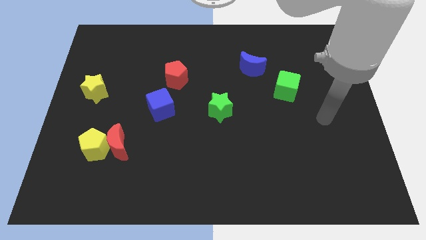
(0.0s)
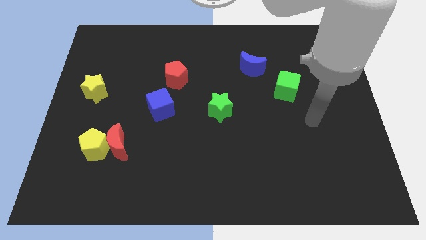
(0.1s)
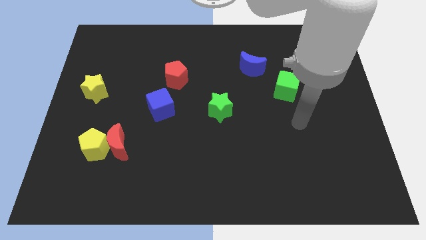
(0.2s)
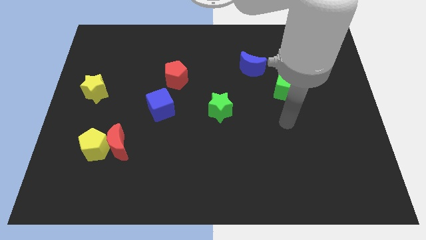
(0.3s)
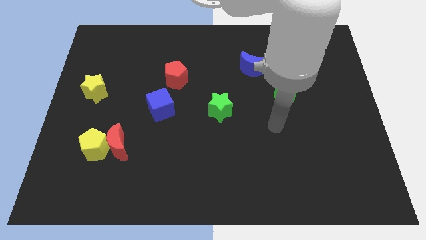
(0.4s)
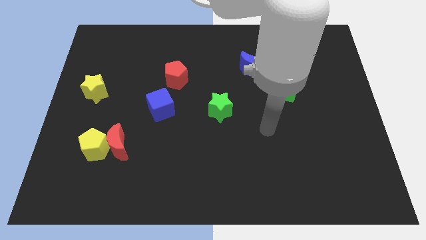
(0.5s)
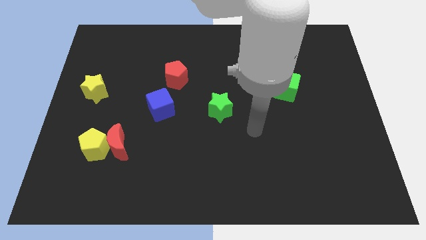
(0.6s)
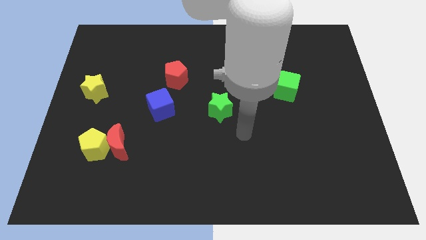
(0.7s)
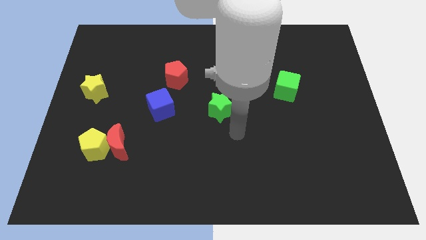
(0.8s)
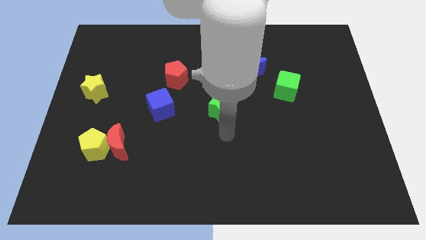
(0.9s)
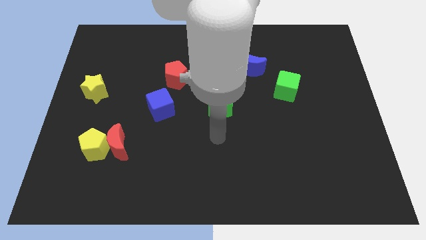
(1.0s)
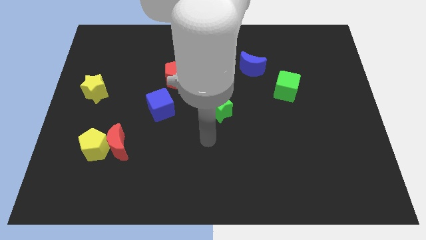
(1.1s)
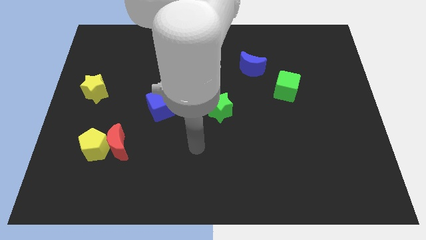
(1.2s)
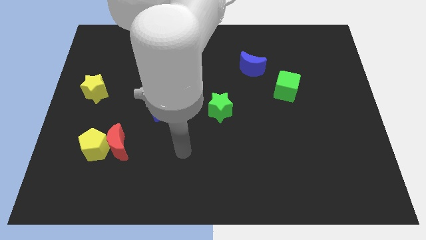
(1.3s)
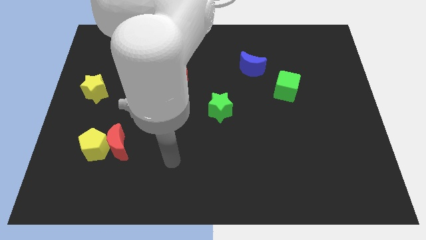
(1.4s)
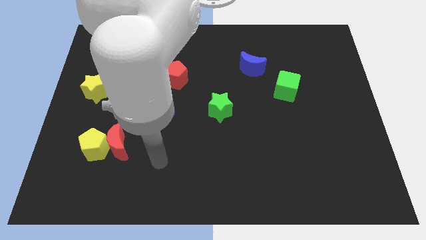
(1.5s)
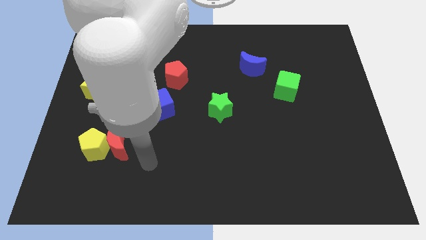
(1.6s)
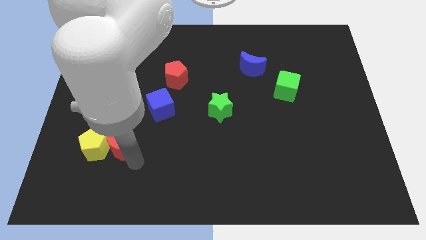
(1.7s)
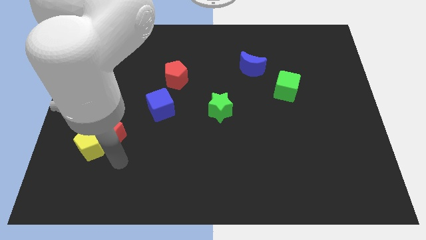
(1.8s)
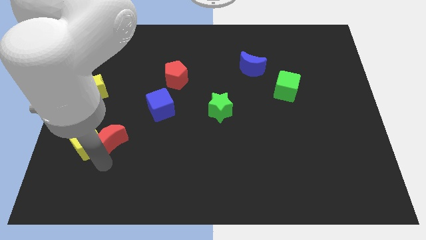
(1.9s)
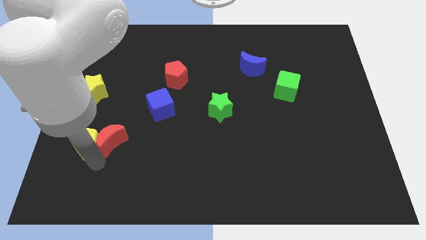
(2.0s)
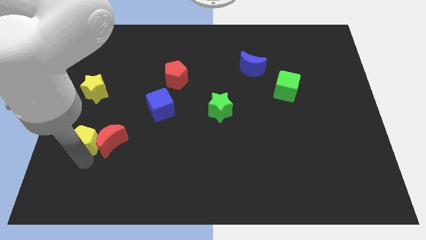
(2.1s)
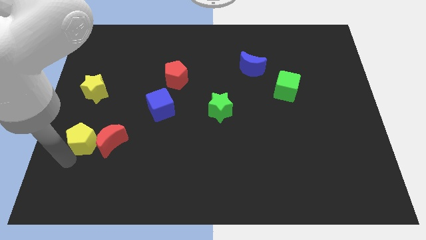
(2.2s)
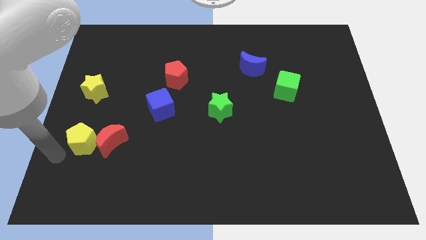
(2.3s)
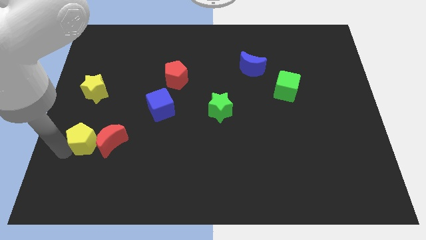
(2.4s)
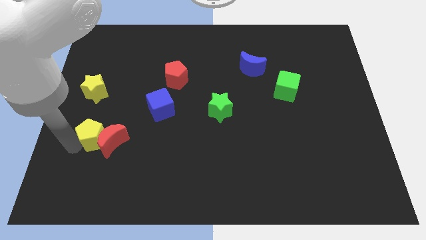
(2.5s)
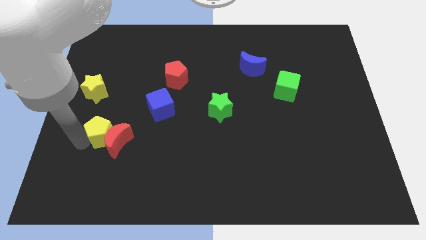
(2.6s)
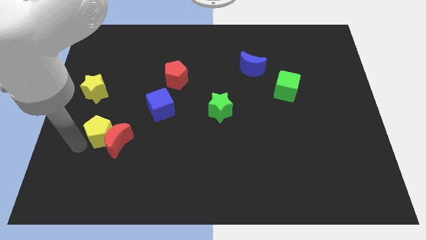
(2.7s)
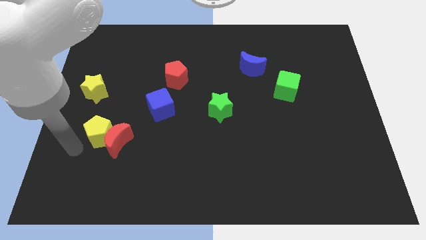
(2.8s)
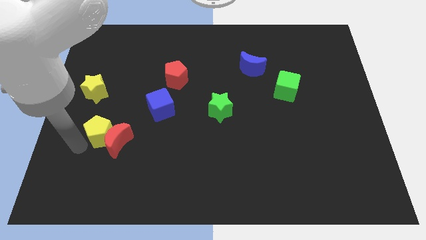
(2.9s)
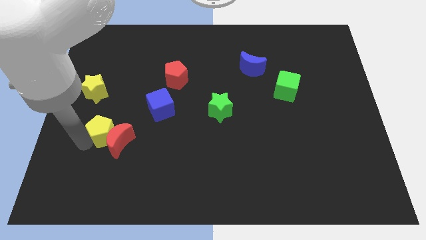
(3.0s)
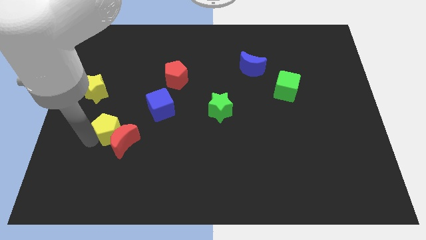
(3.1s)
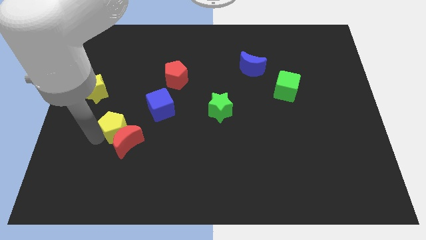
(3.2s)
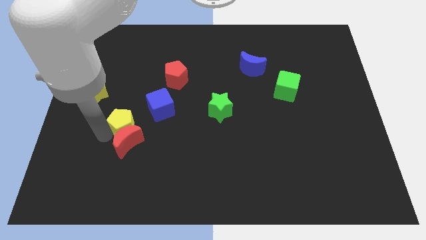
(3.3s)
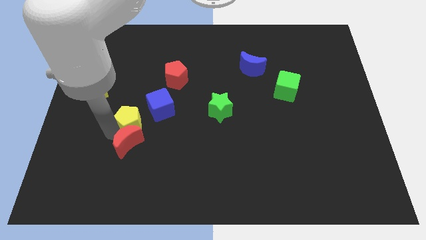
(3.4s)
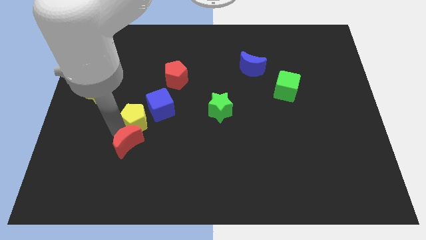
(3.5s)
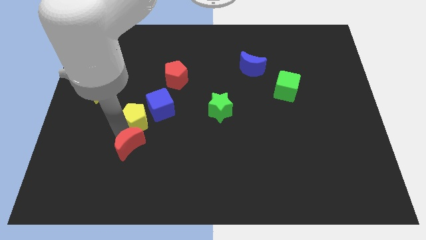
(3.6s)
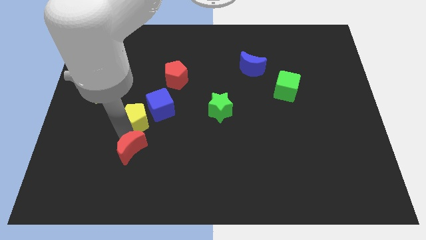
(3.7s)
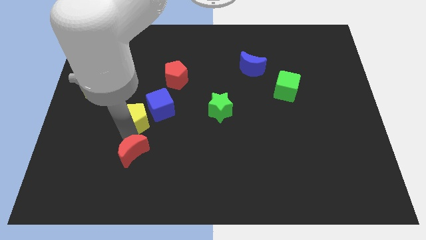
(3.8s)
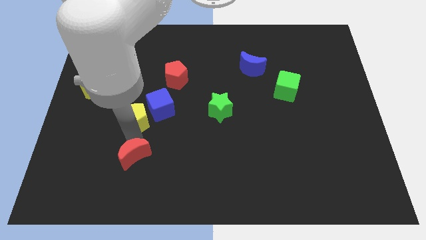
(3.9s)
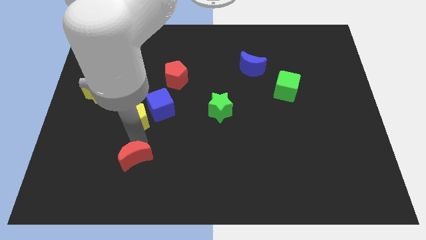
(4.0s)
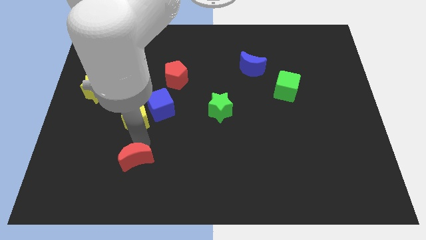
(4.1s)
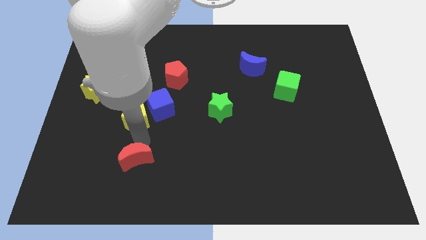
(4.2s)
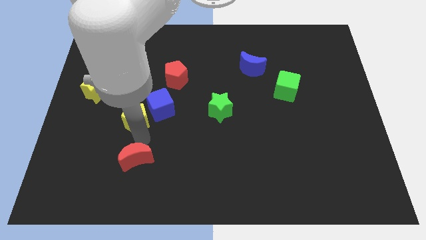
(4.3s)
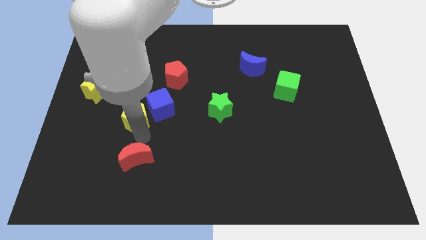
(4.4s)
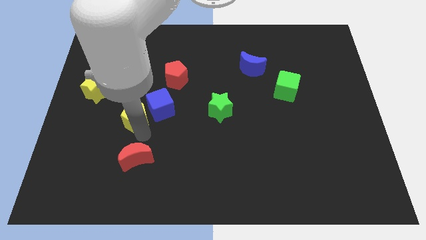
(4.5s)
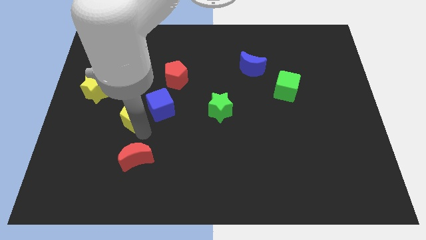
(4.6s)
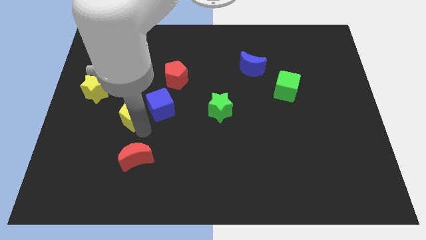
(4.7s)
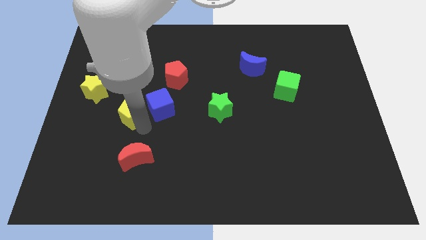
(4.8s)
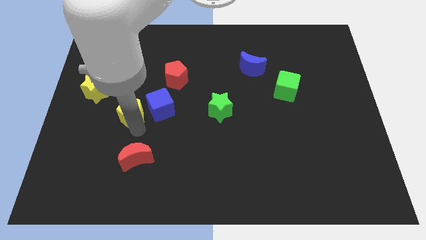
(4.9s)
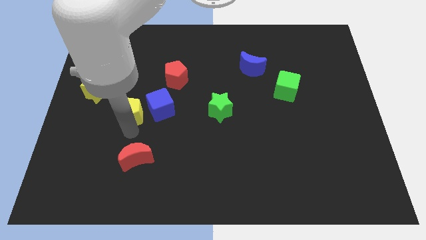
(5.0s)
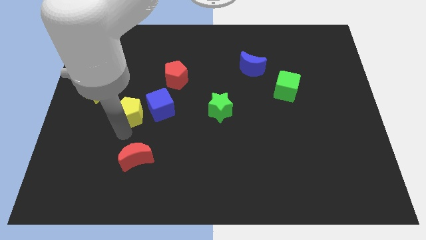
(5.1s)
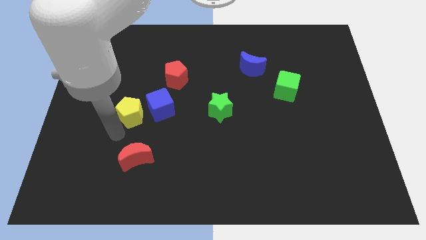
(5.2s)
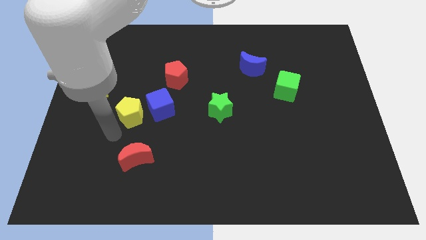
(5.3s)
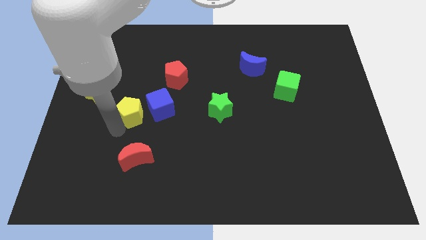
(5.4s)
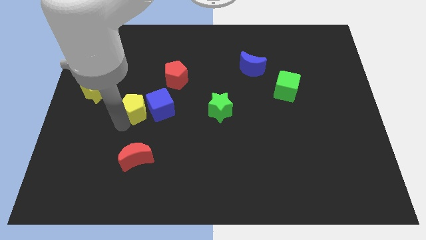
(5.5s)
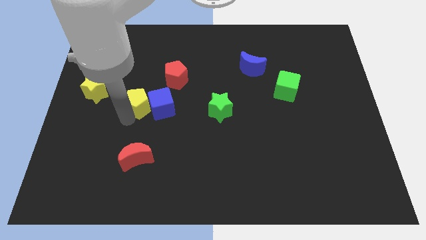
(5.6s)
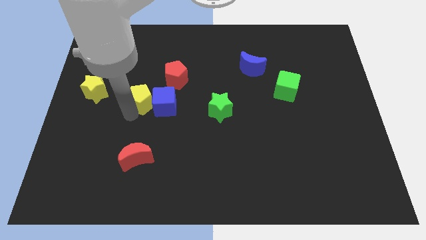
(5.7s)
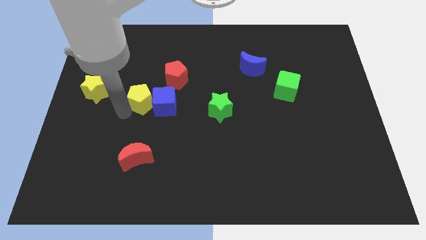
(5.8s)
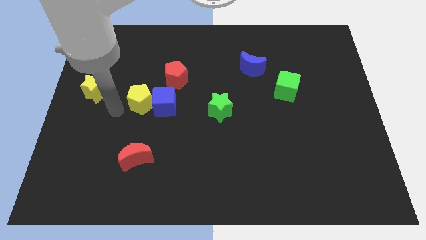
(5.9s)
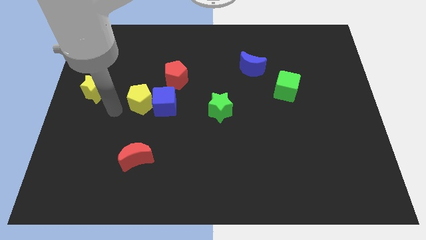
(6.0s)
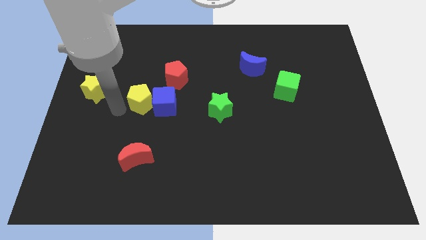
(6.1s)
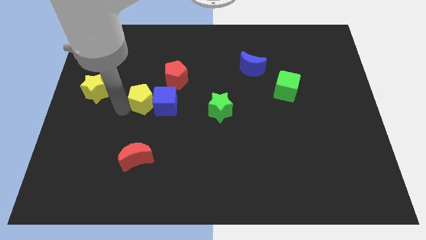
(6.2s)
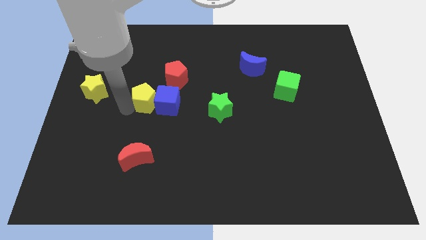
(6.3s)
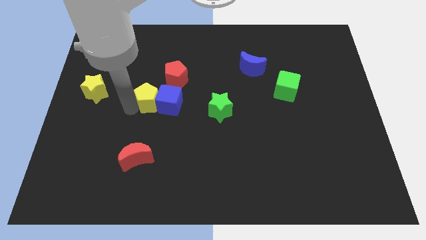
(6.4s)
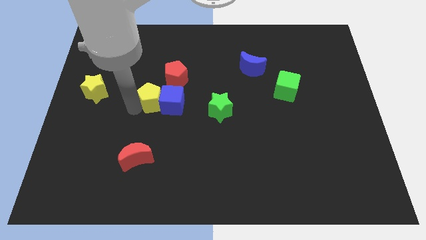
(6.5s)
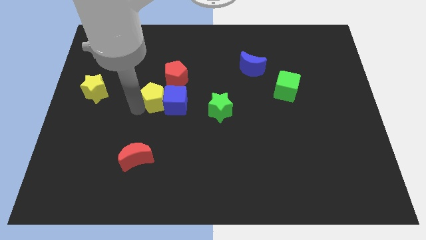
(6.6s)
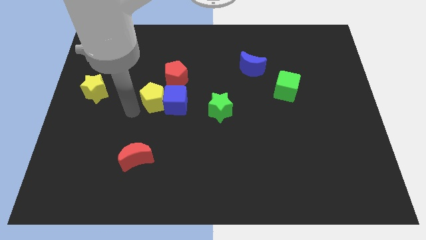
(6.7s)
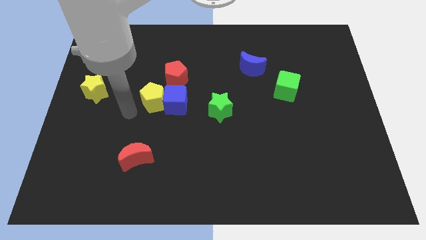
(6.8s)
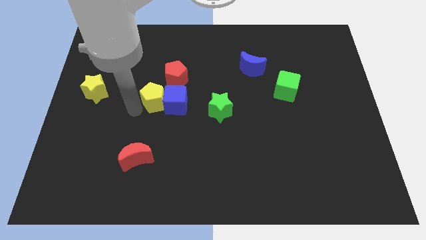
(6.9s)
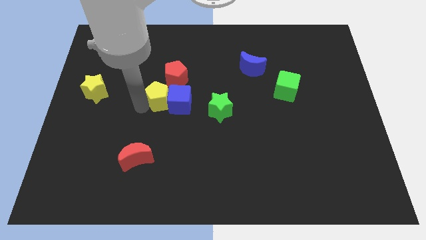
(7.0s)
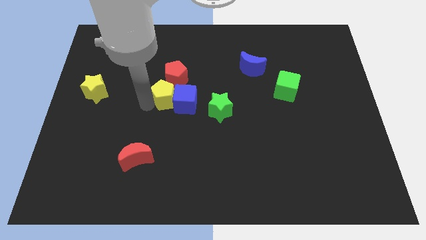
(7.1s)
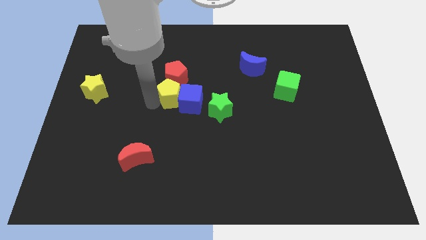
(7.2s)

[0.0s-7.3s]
push the yellow pentagon upwards and then right

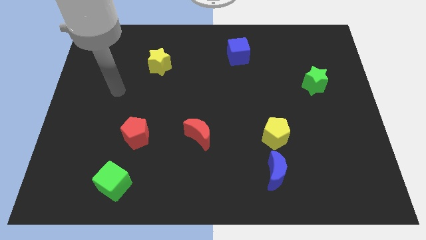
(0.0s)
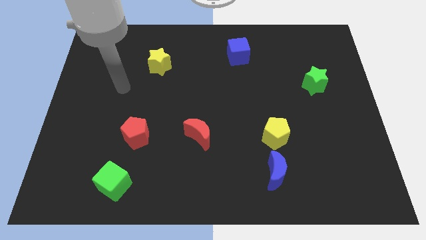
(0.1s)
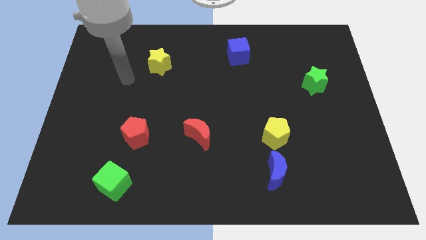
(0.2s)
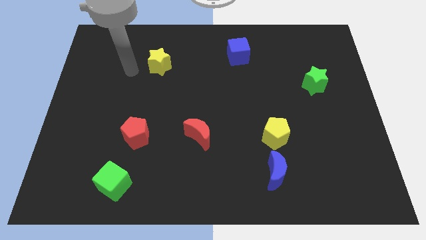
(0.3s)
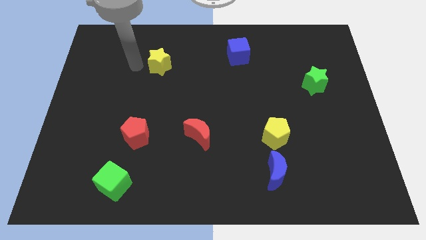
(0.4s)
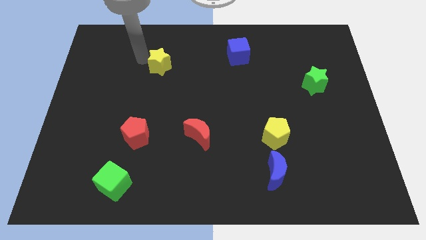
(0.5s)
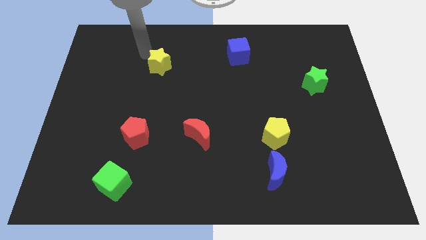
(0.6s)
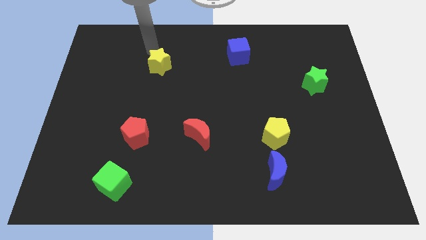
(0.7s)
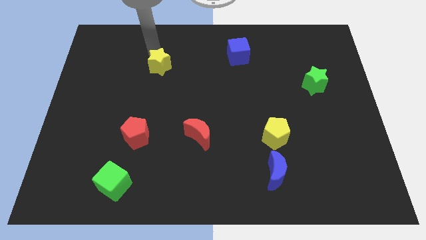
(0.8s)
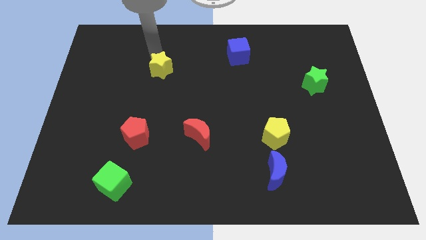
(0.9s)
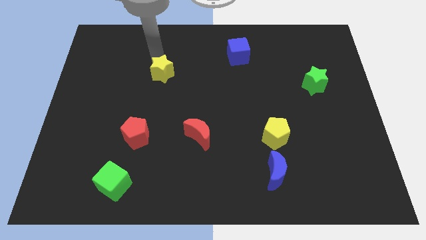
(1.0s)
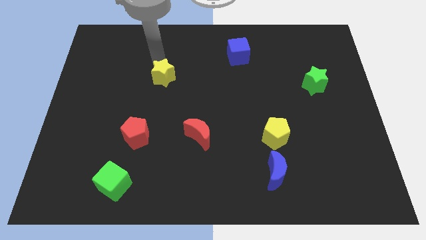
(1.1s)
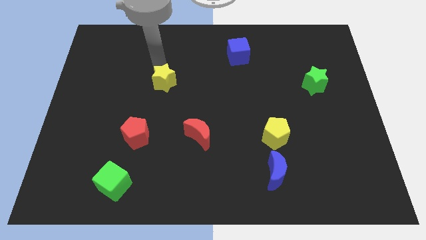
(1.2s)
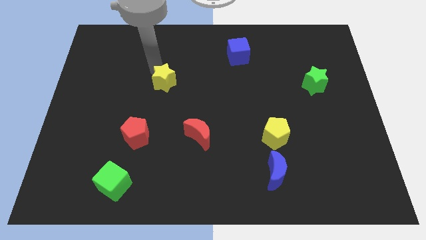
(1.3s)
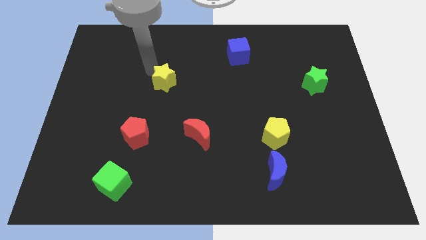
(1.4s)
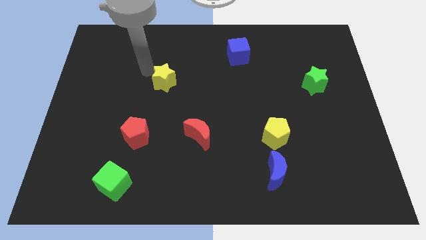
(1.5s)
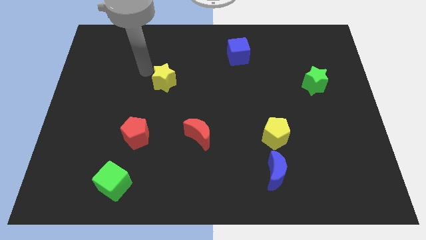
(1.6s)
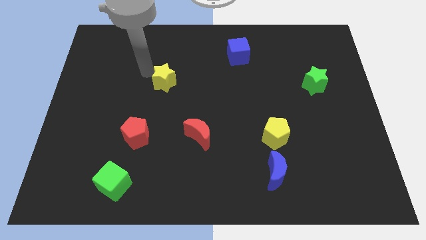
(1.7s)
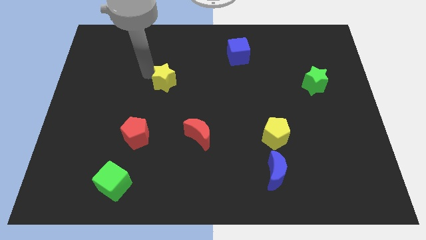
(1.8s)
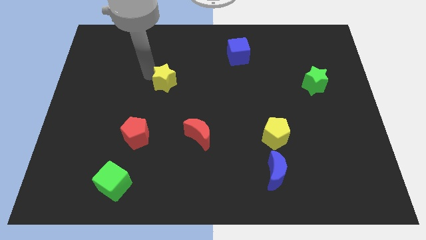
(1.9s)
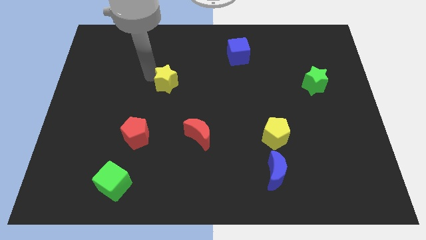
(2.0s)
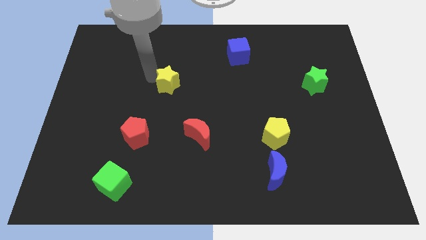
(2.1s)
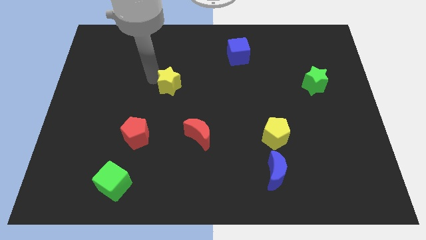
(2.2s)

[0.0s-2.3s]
push the yellow star downwards and to the right diagonally slightly
